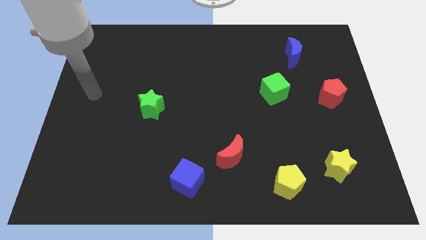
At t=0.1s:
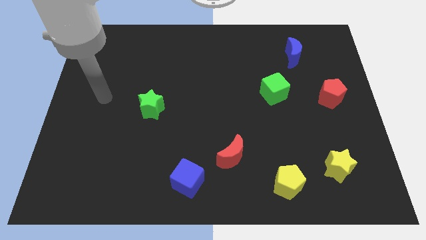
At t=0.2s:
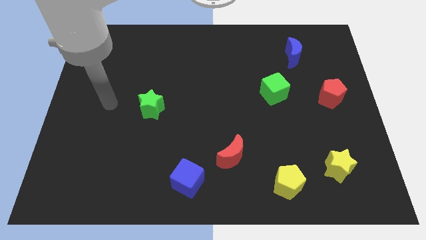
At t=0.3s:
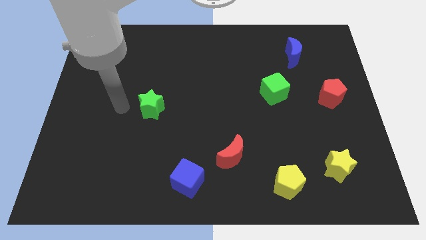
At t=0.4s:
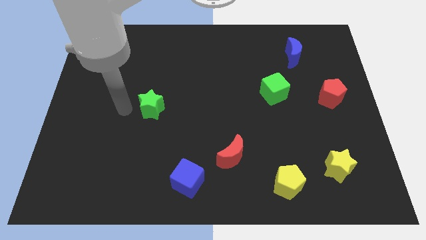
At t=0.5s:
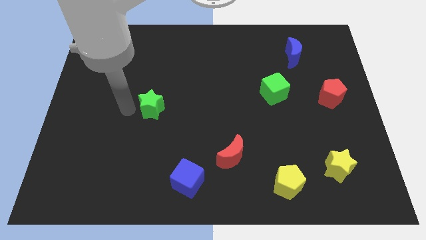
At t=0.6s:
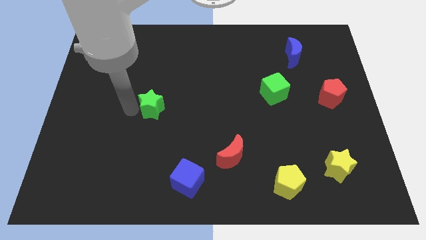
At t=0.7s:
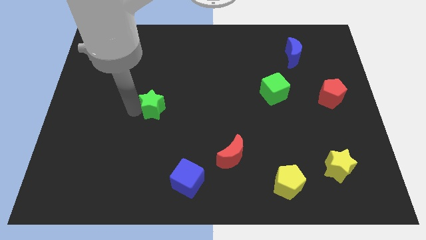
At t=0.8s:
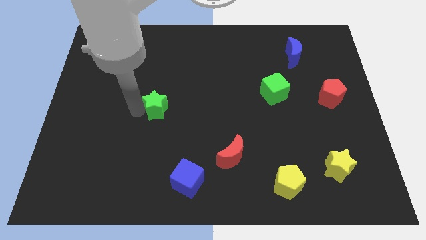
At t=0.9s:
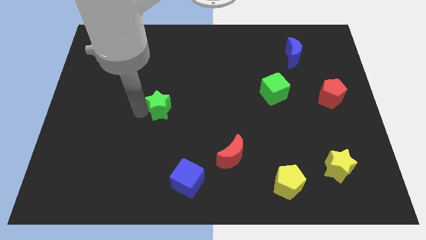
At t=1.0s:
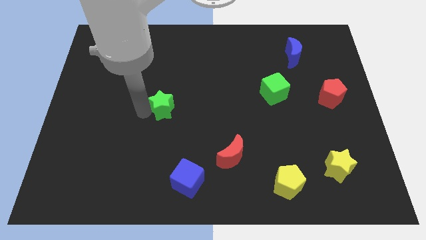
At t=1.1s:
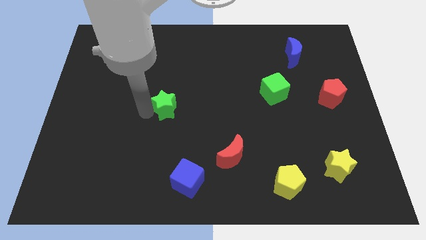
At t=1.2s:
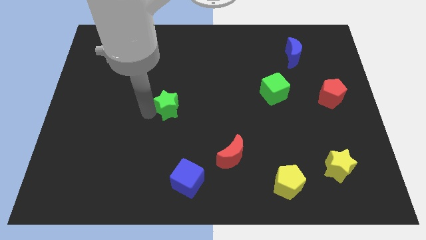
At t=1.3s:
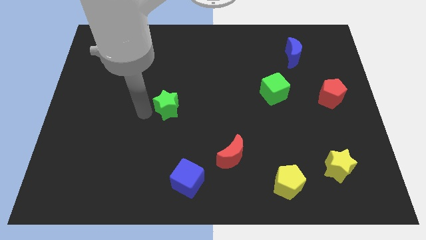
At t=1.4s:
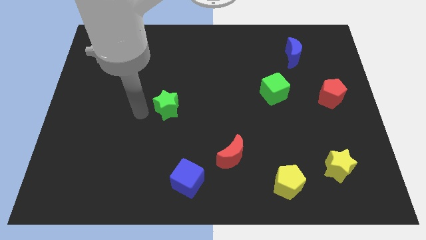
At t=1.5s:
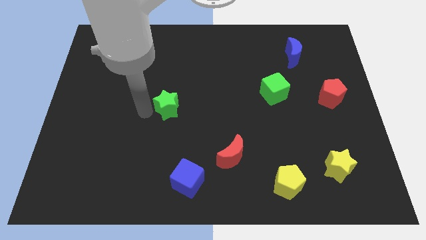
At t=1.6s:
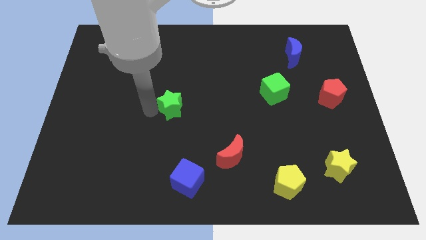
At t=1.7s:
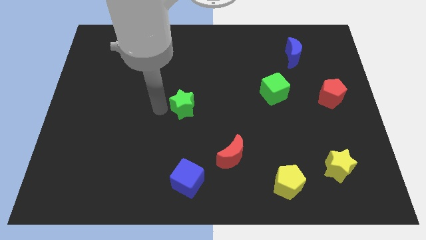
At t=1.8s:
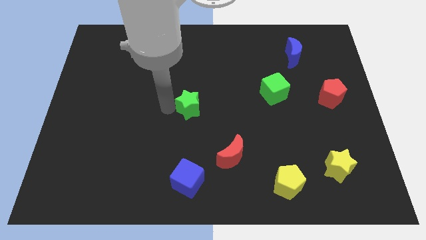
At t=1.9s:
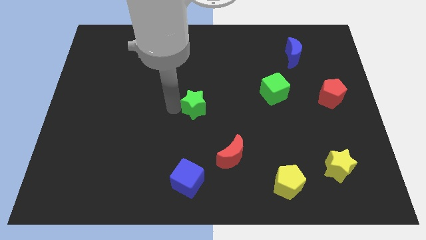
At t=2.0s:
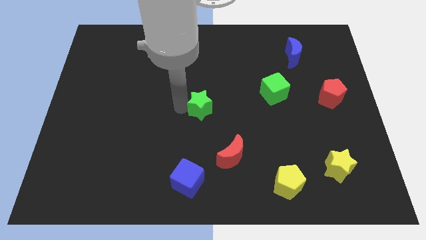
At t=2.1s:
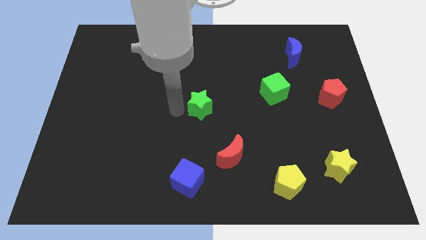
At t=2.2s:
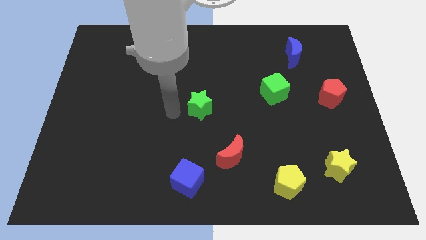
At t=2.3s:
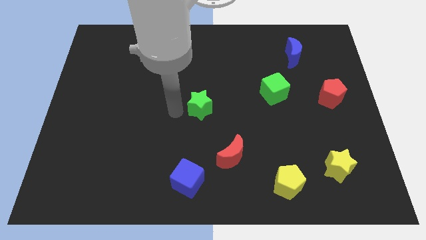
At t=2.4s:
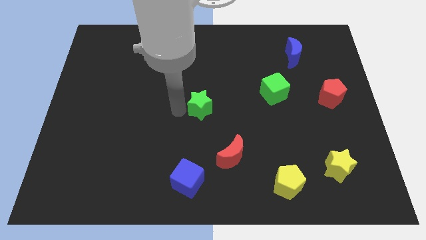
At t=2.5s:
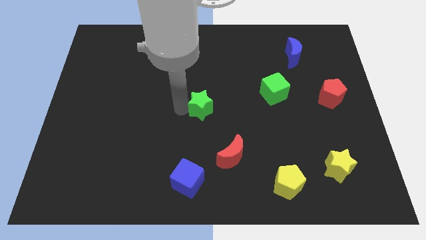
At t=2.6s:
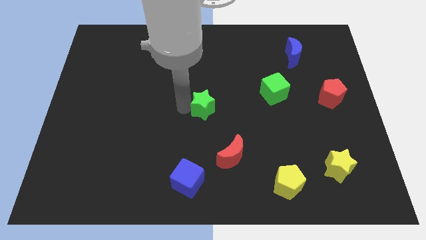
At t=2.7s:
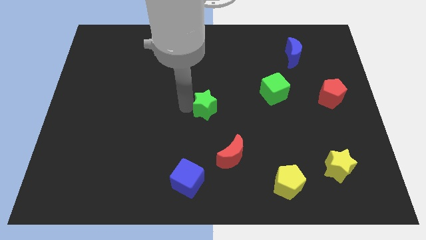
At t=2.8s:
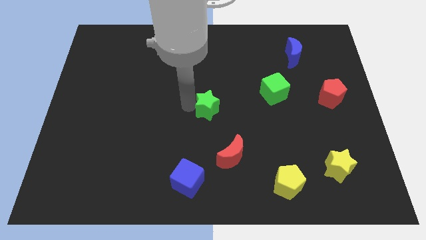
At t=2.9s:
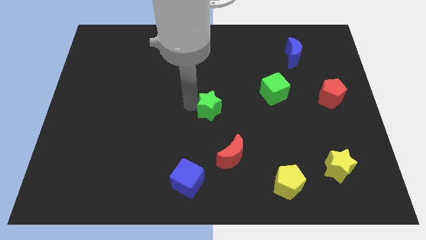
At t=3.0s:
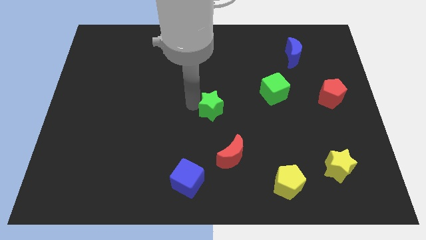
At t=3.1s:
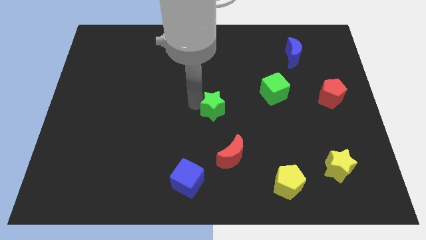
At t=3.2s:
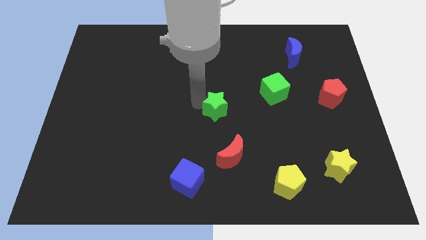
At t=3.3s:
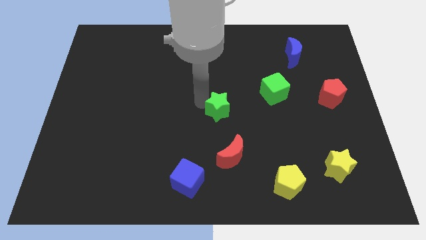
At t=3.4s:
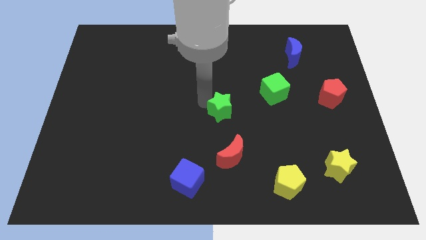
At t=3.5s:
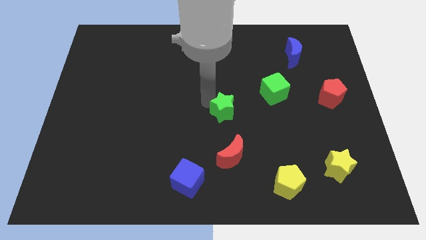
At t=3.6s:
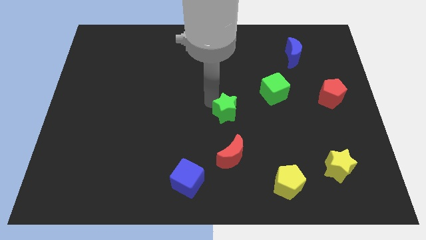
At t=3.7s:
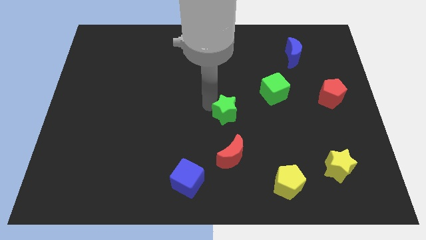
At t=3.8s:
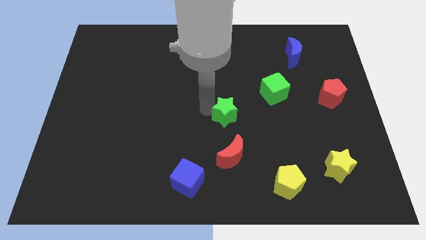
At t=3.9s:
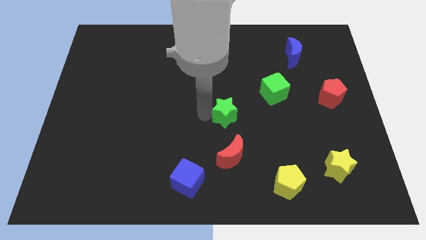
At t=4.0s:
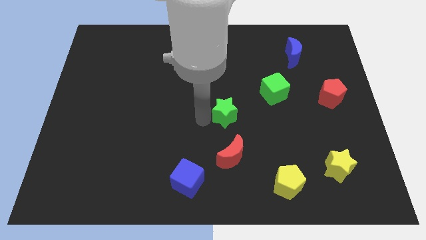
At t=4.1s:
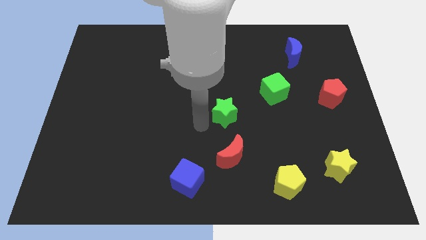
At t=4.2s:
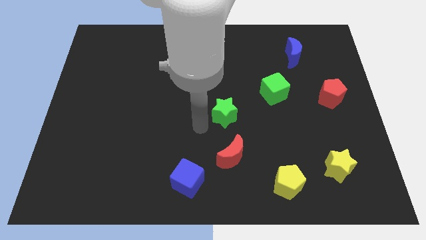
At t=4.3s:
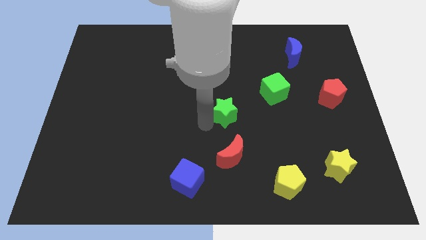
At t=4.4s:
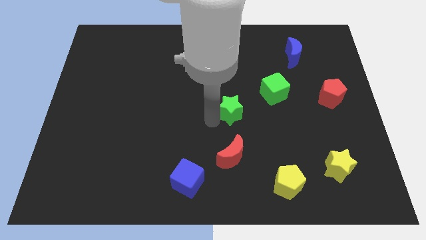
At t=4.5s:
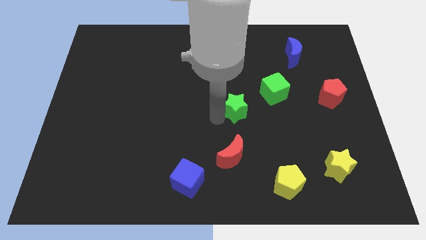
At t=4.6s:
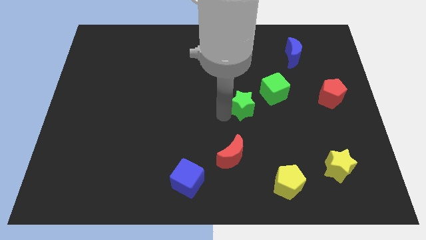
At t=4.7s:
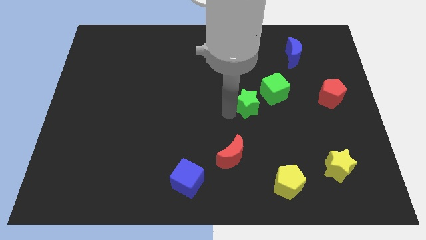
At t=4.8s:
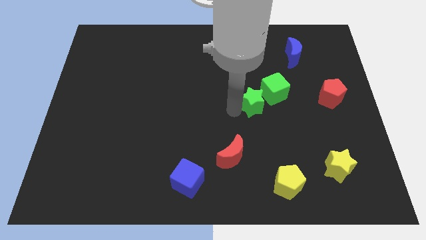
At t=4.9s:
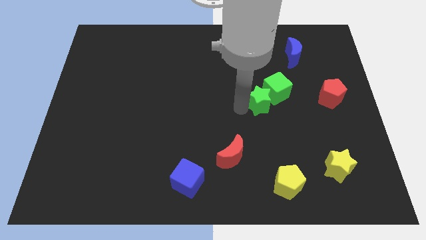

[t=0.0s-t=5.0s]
put the green star close to the green cube

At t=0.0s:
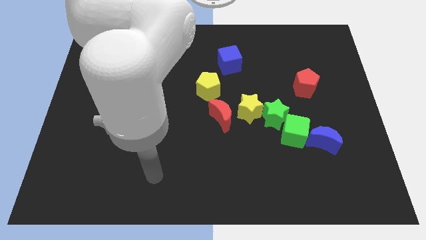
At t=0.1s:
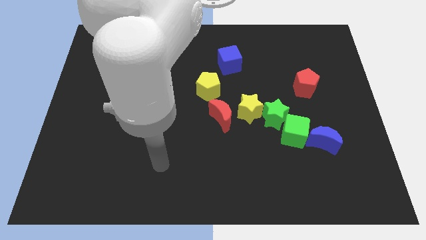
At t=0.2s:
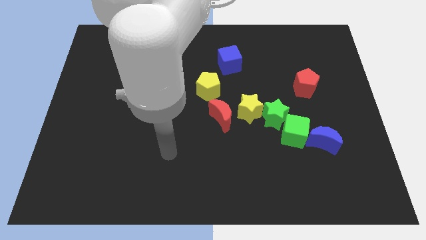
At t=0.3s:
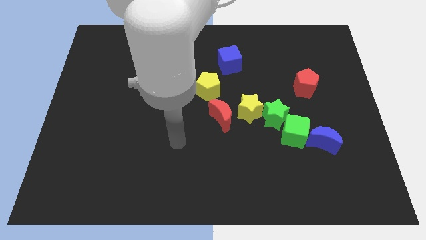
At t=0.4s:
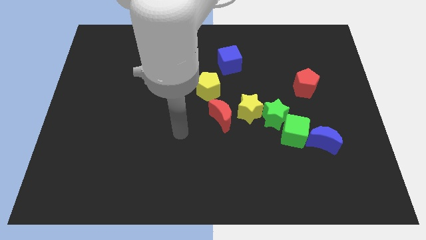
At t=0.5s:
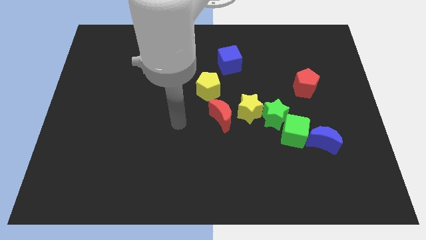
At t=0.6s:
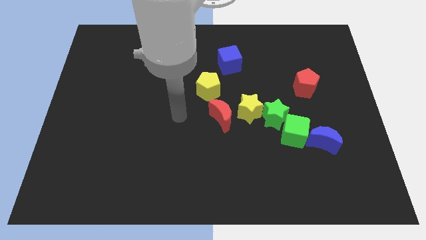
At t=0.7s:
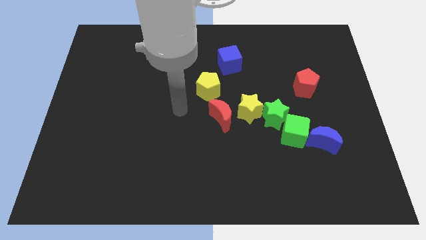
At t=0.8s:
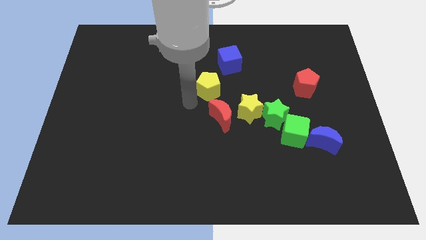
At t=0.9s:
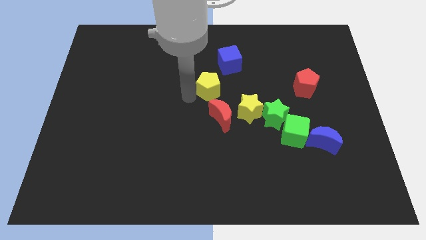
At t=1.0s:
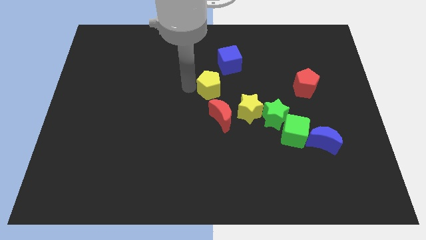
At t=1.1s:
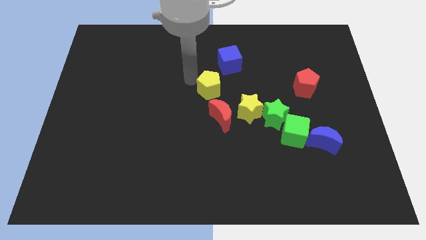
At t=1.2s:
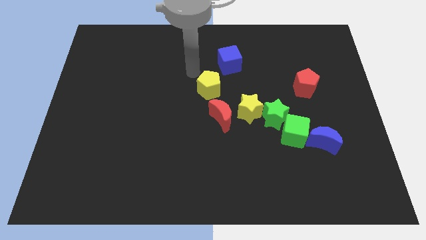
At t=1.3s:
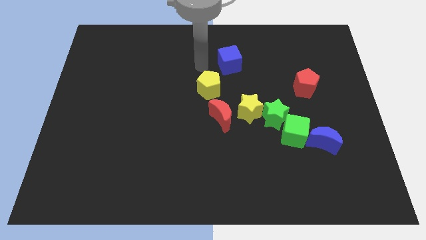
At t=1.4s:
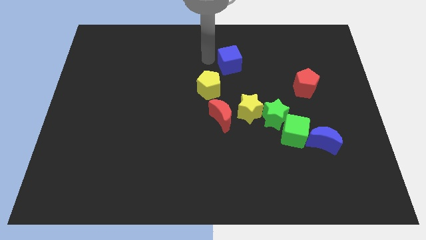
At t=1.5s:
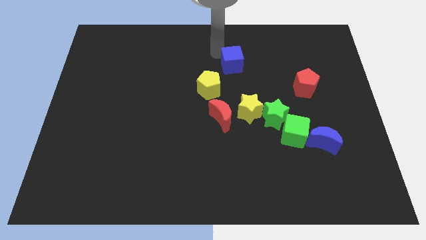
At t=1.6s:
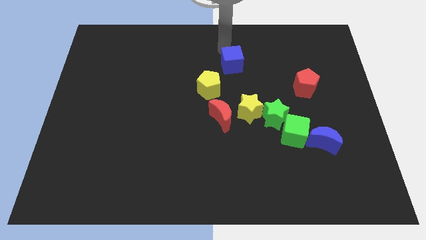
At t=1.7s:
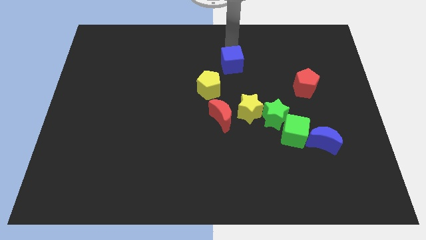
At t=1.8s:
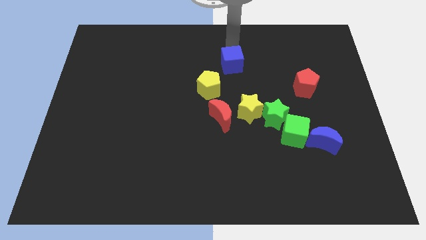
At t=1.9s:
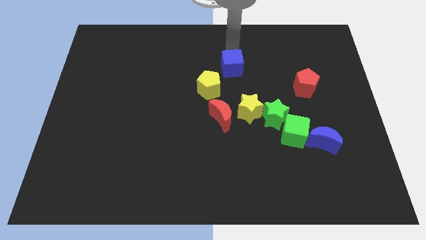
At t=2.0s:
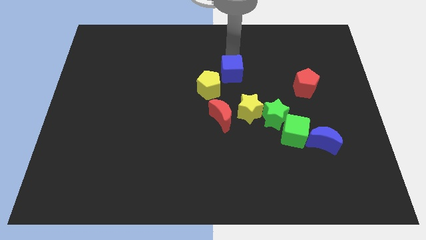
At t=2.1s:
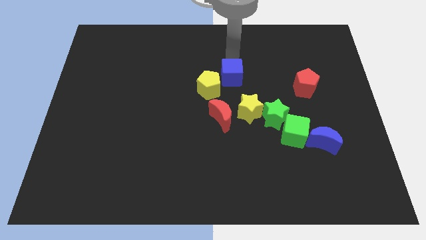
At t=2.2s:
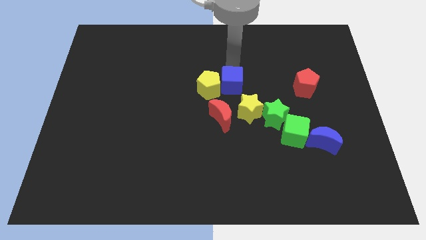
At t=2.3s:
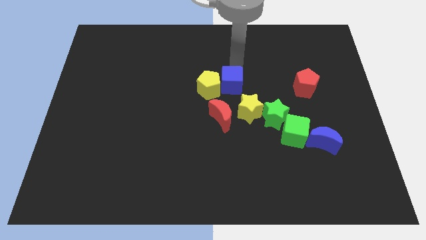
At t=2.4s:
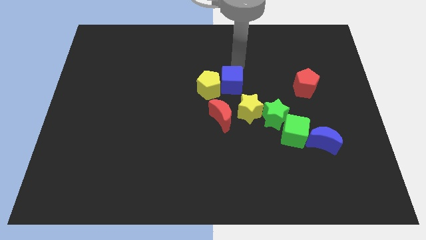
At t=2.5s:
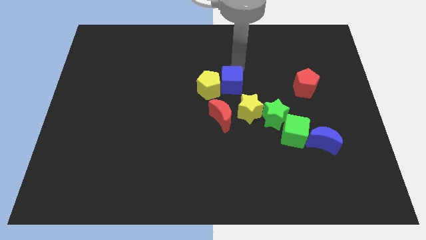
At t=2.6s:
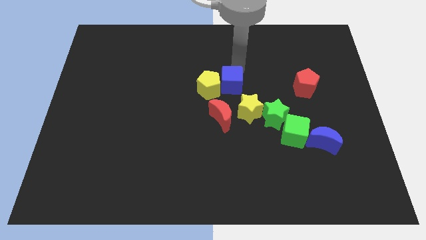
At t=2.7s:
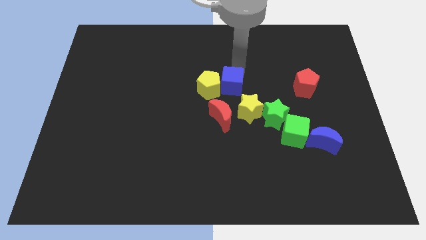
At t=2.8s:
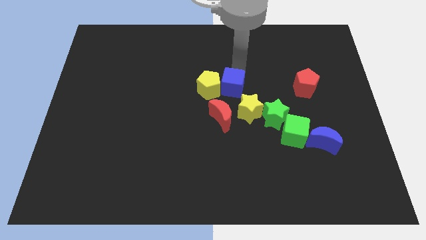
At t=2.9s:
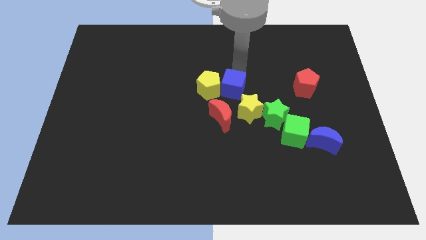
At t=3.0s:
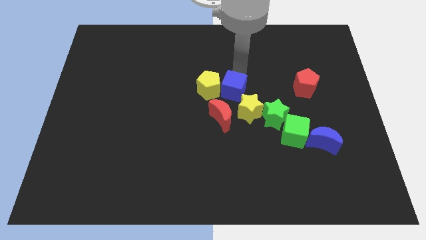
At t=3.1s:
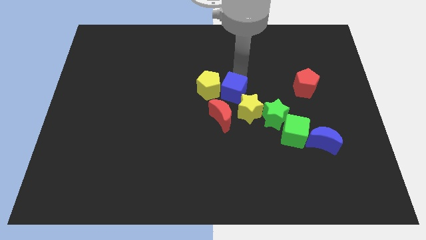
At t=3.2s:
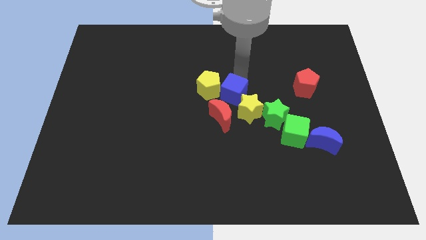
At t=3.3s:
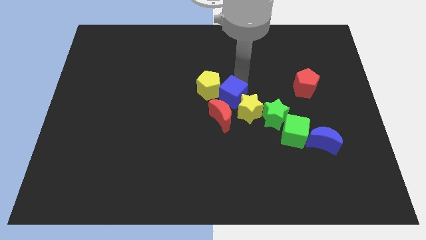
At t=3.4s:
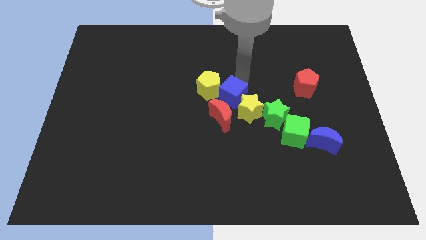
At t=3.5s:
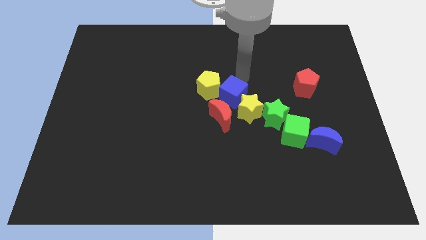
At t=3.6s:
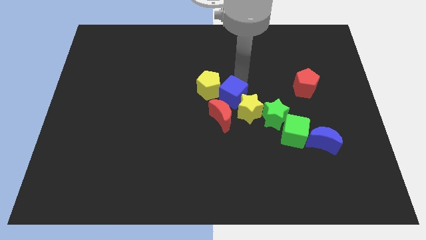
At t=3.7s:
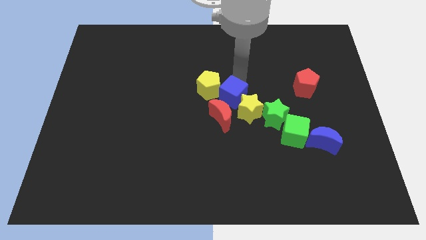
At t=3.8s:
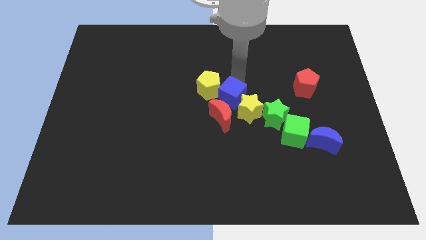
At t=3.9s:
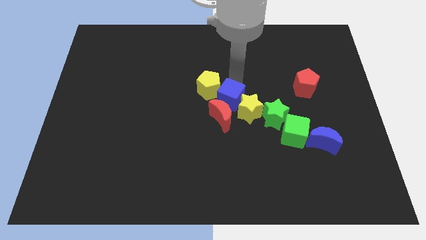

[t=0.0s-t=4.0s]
move the blue cube next to the red moon
